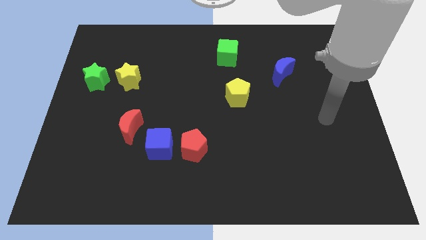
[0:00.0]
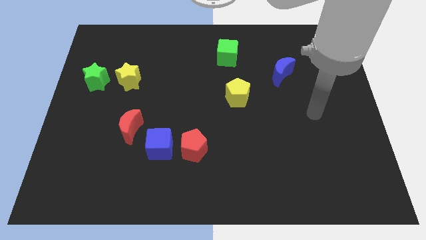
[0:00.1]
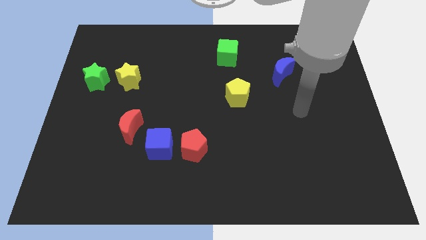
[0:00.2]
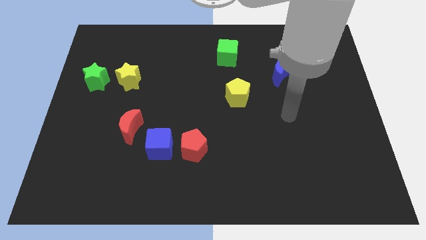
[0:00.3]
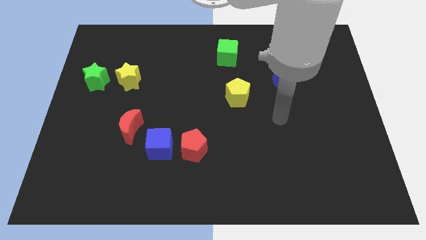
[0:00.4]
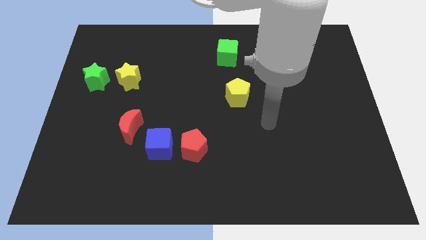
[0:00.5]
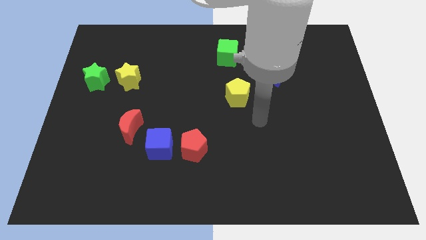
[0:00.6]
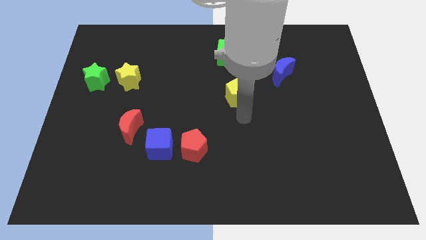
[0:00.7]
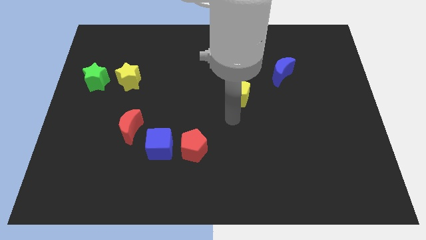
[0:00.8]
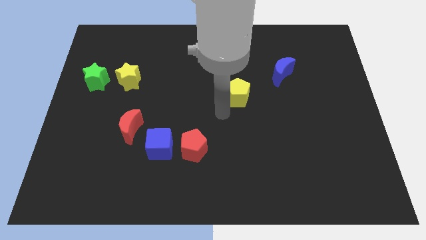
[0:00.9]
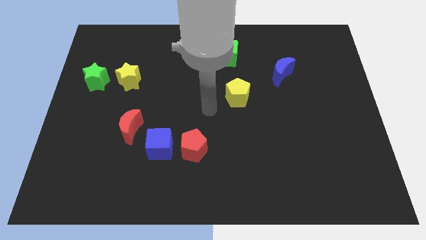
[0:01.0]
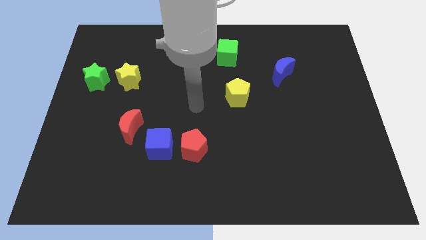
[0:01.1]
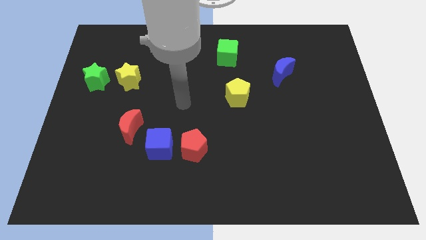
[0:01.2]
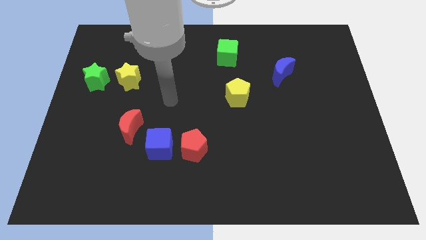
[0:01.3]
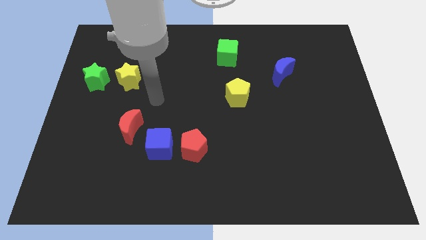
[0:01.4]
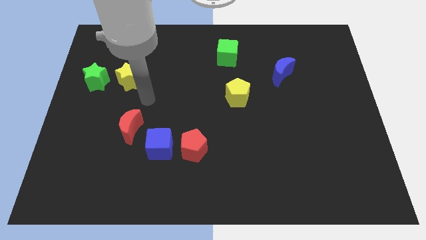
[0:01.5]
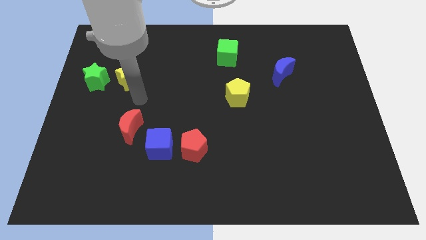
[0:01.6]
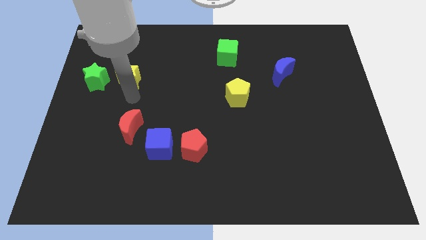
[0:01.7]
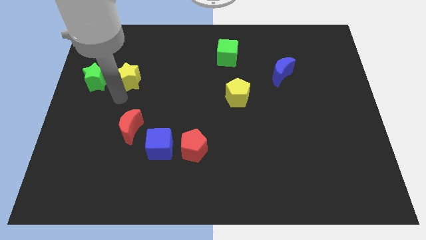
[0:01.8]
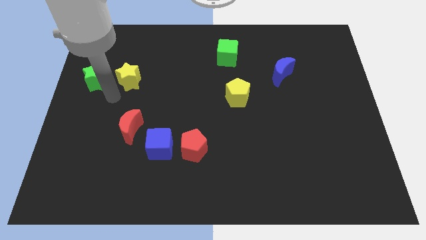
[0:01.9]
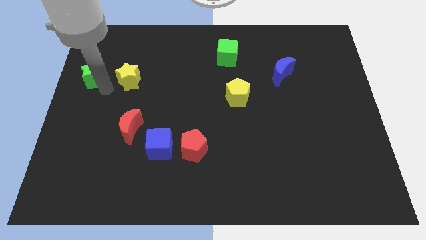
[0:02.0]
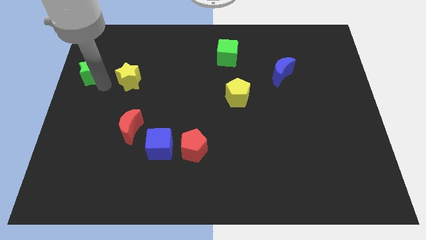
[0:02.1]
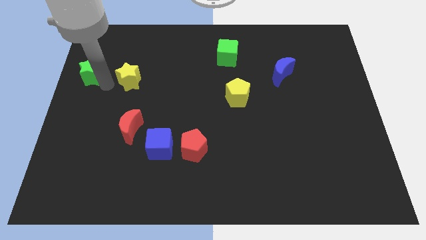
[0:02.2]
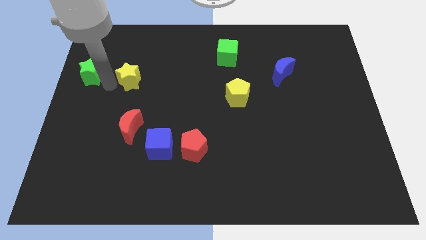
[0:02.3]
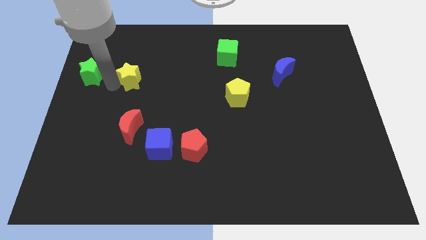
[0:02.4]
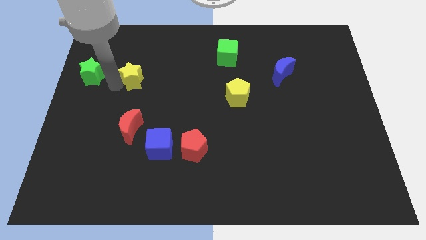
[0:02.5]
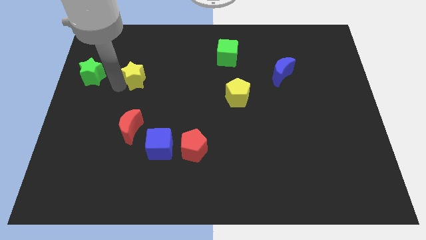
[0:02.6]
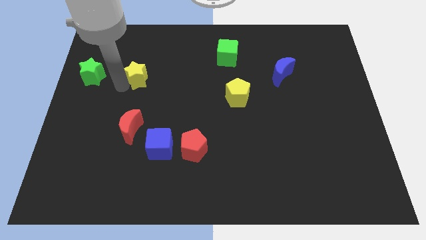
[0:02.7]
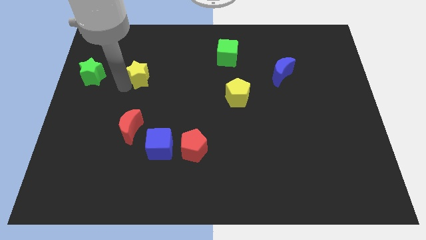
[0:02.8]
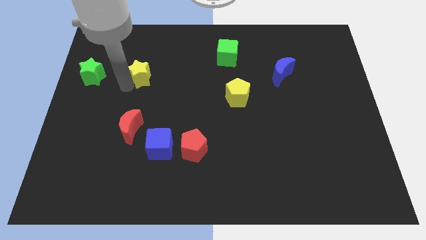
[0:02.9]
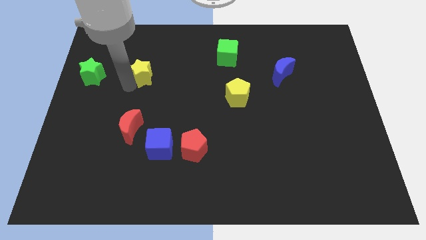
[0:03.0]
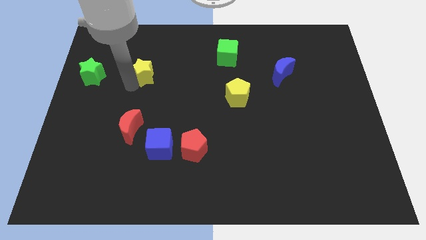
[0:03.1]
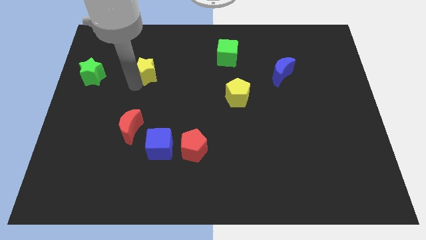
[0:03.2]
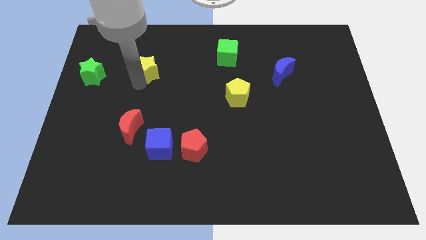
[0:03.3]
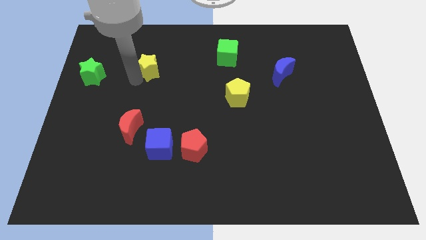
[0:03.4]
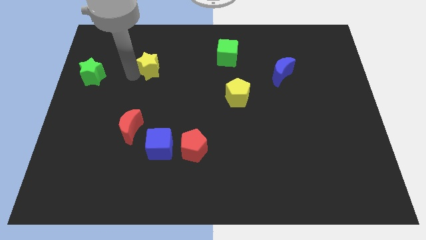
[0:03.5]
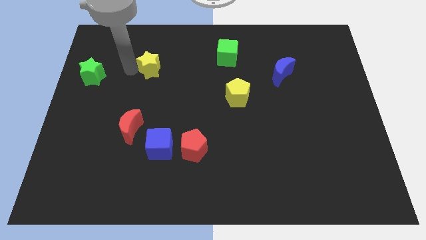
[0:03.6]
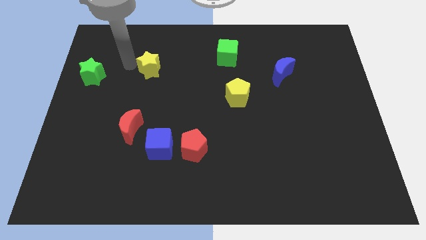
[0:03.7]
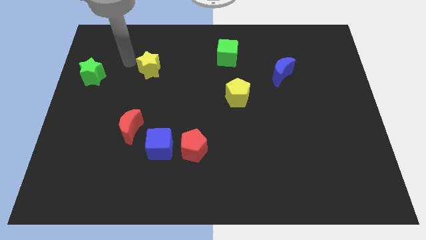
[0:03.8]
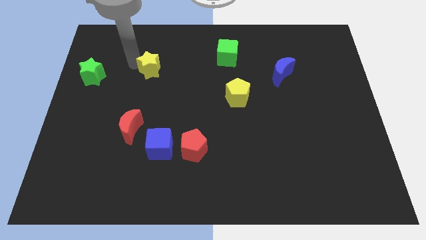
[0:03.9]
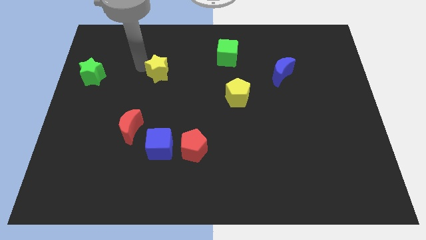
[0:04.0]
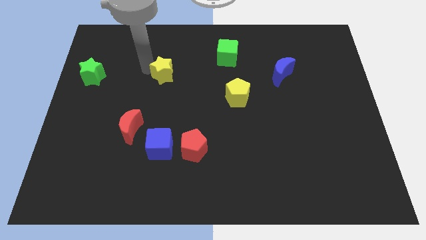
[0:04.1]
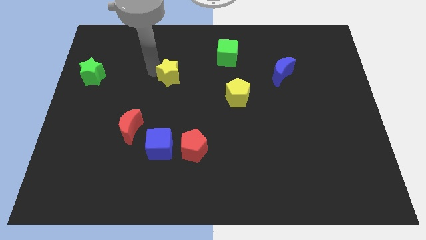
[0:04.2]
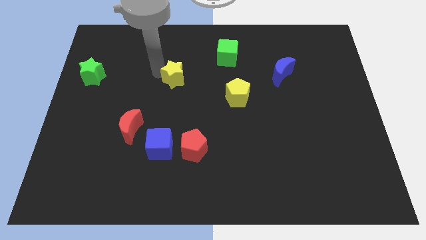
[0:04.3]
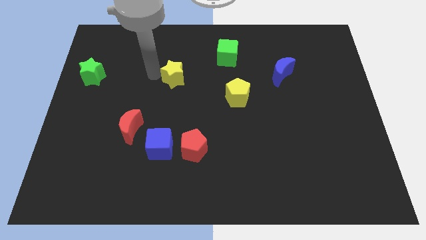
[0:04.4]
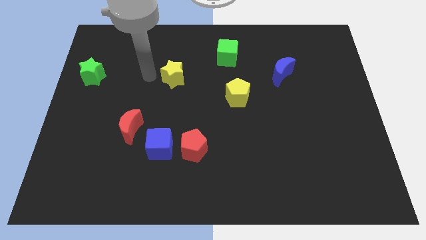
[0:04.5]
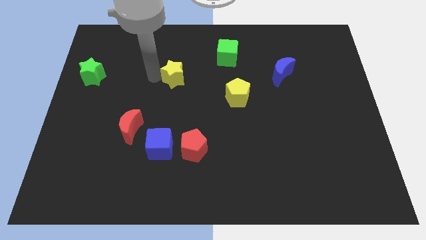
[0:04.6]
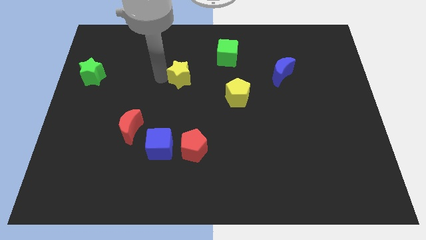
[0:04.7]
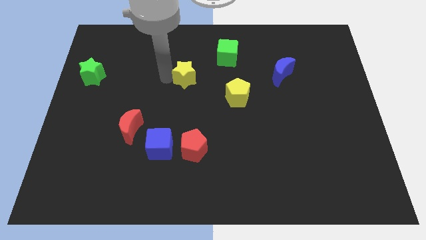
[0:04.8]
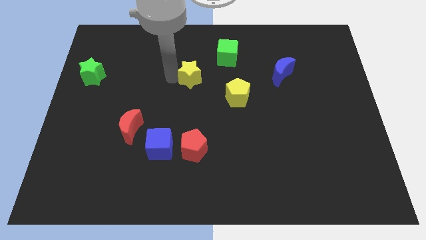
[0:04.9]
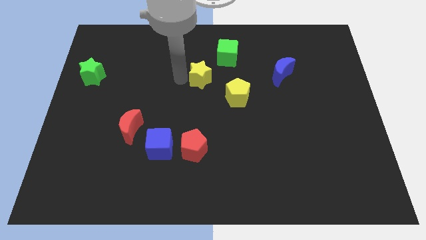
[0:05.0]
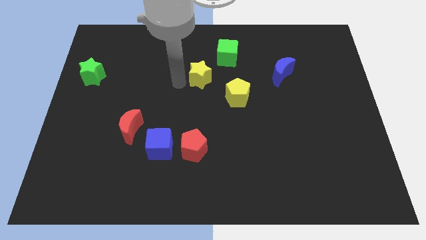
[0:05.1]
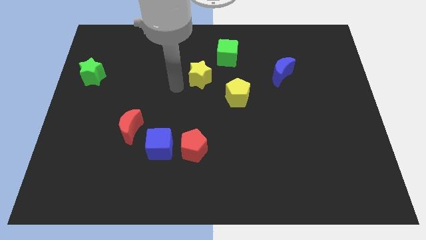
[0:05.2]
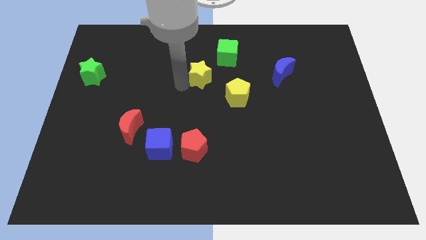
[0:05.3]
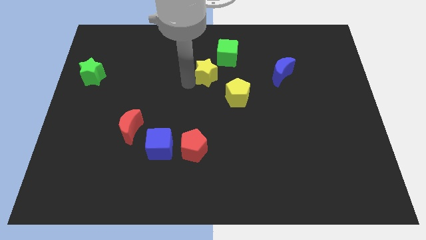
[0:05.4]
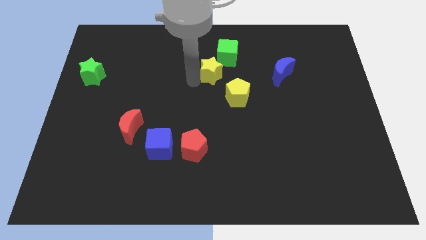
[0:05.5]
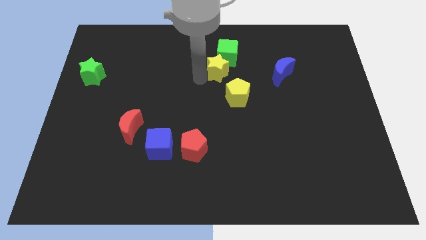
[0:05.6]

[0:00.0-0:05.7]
slide the yellow star to the top of the yellow pentagon

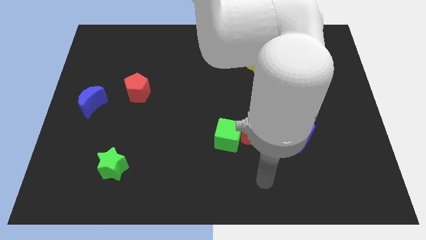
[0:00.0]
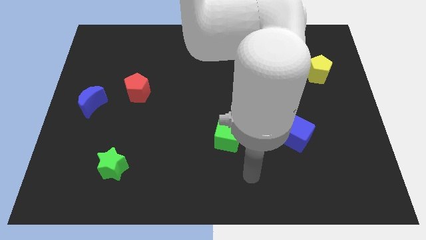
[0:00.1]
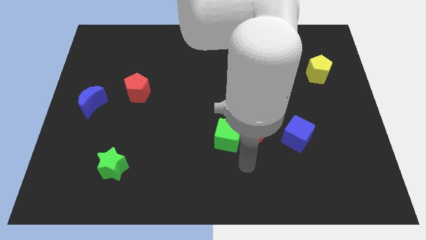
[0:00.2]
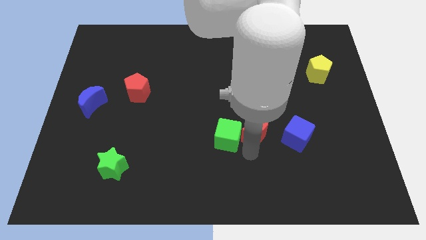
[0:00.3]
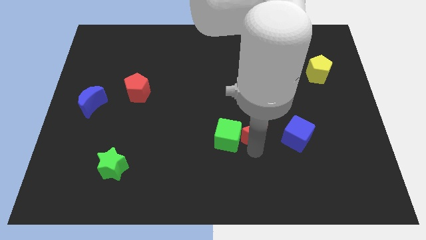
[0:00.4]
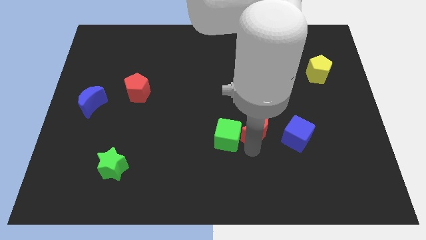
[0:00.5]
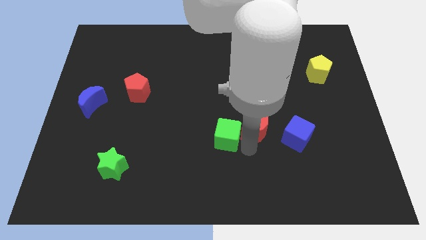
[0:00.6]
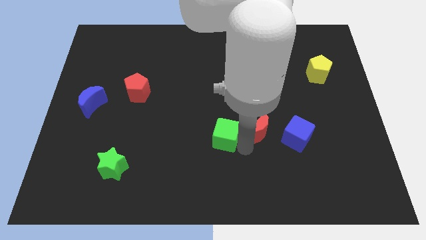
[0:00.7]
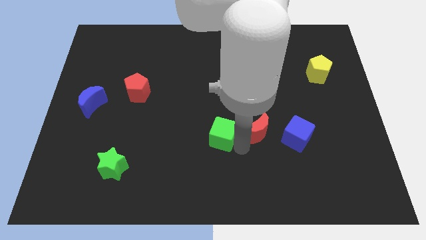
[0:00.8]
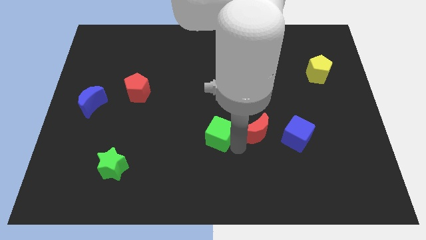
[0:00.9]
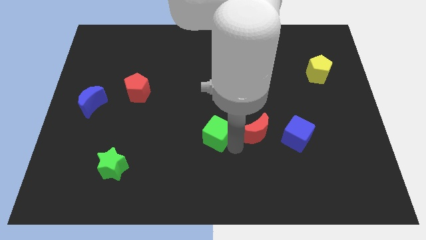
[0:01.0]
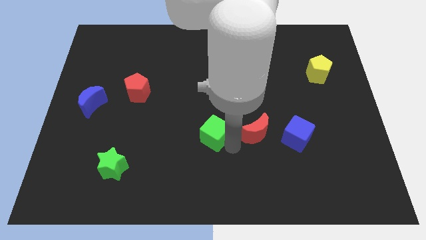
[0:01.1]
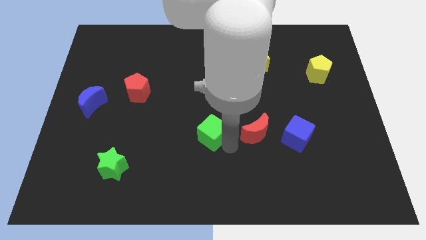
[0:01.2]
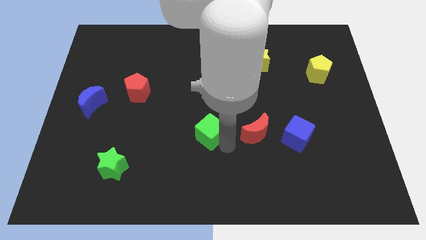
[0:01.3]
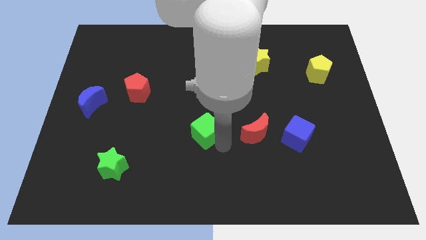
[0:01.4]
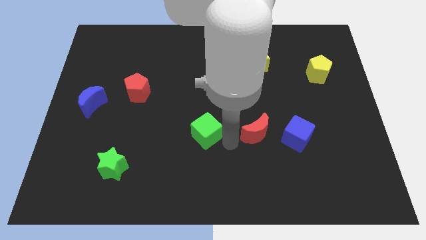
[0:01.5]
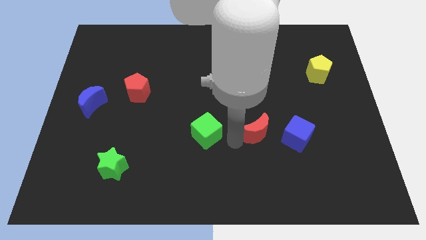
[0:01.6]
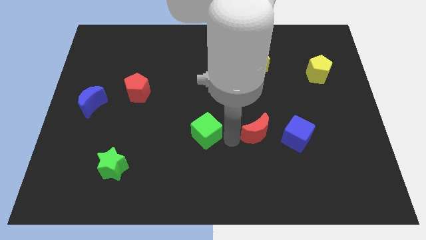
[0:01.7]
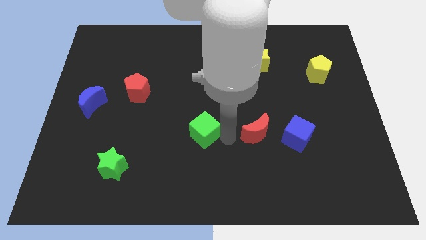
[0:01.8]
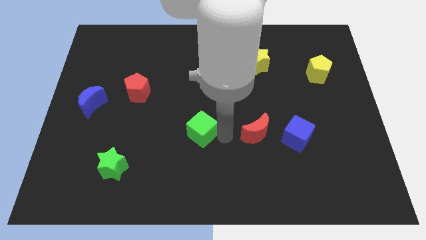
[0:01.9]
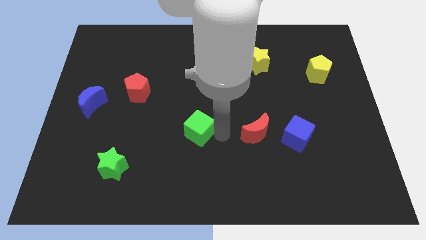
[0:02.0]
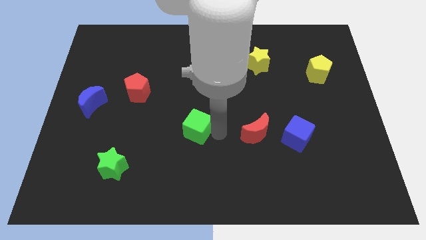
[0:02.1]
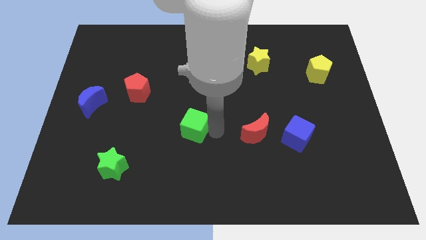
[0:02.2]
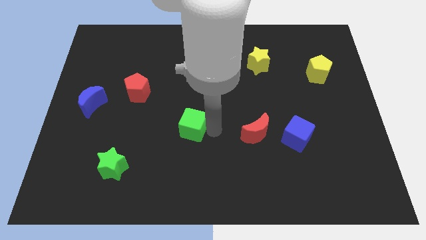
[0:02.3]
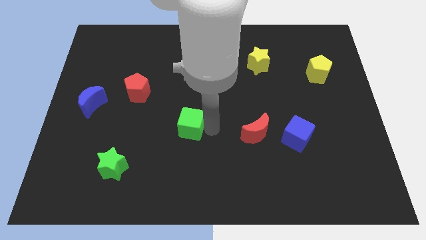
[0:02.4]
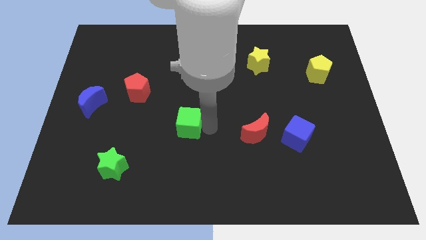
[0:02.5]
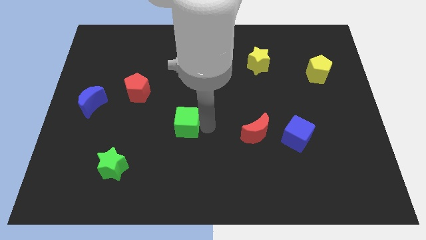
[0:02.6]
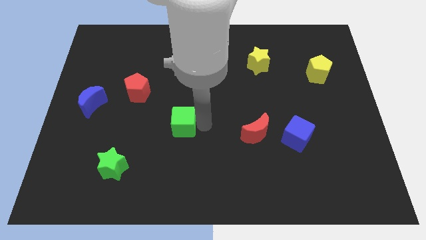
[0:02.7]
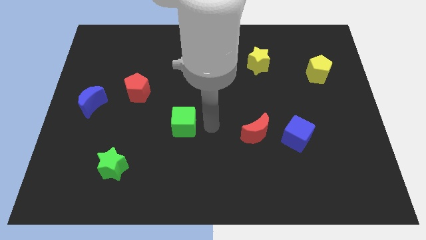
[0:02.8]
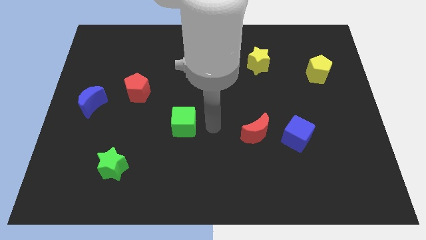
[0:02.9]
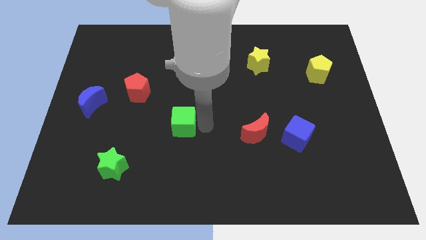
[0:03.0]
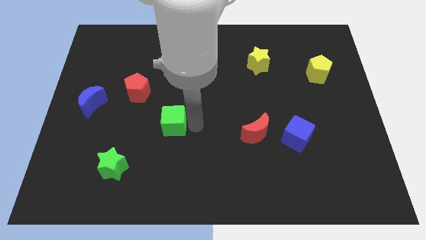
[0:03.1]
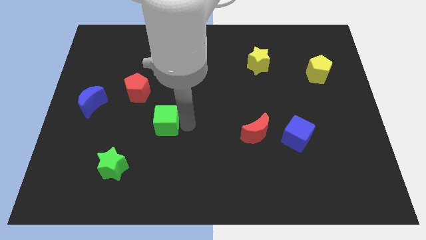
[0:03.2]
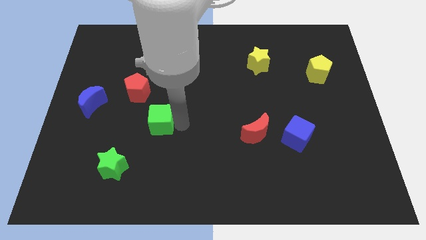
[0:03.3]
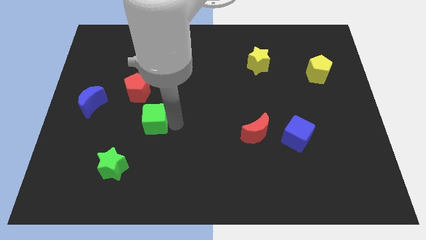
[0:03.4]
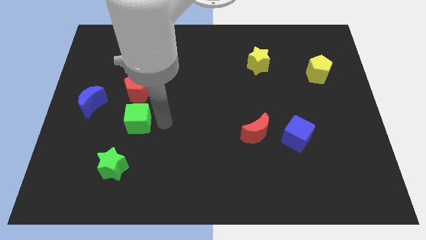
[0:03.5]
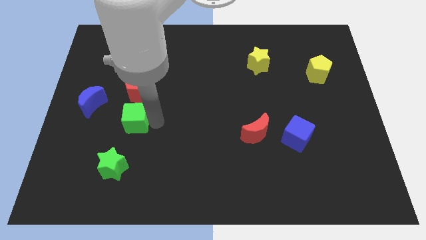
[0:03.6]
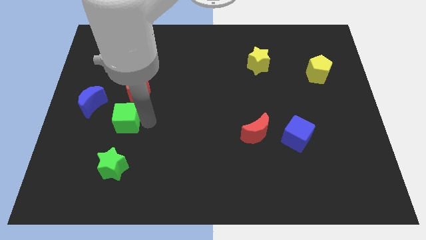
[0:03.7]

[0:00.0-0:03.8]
put the green cube diagonally down and to the right of the blue moon
